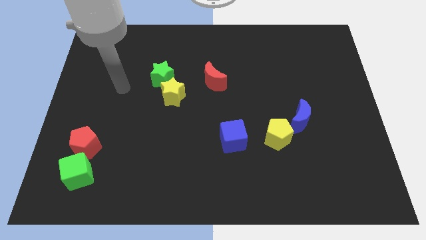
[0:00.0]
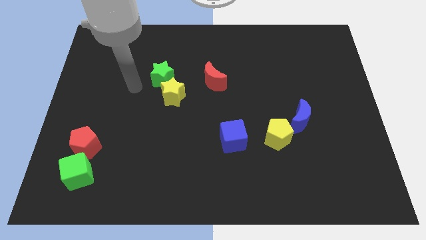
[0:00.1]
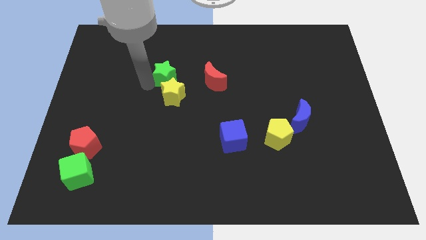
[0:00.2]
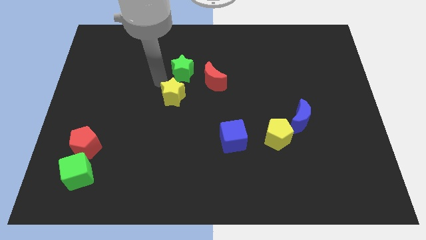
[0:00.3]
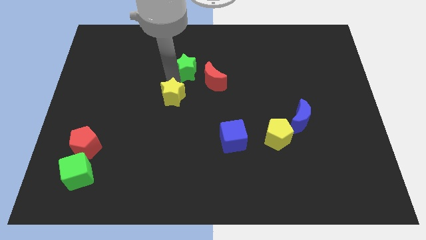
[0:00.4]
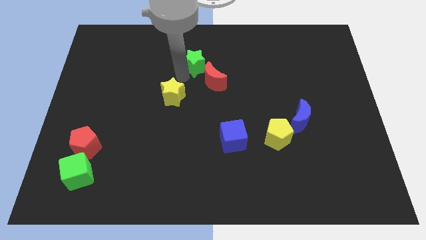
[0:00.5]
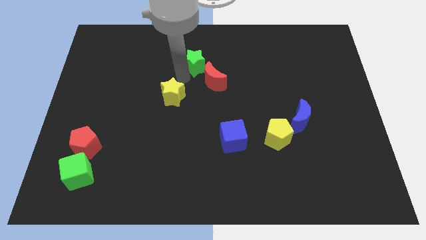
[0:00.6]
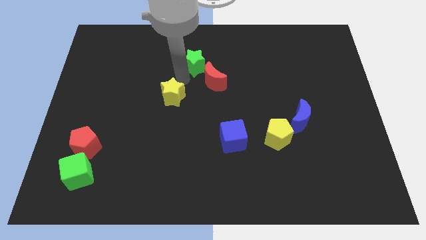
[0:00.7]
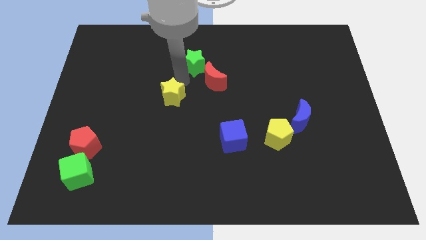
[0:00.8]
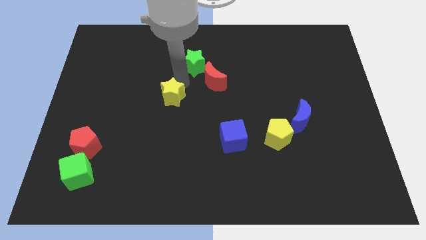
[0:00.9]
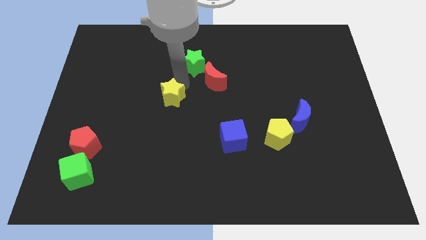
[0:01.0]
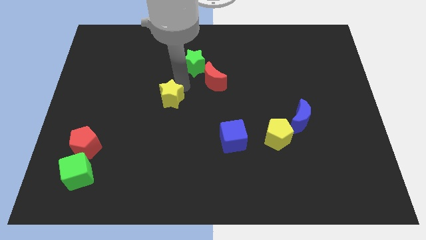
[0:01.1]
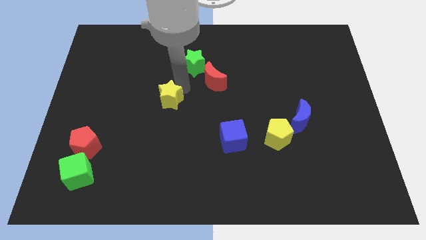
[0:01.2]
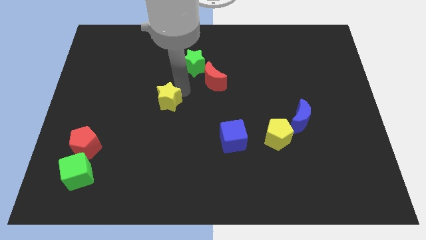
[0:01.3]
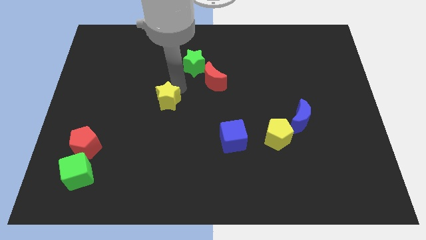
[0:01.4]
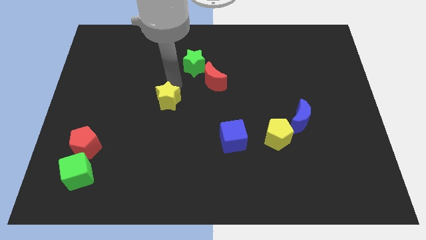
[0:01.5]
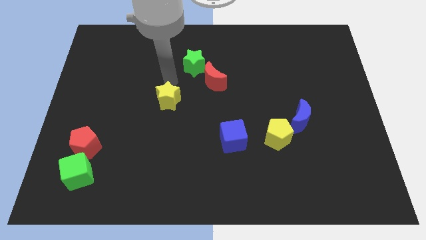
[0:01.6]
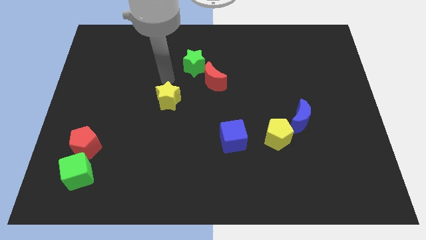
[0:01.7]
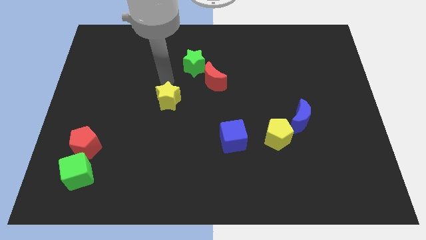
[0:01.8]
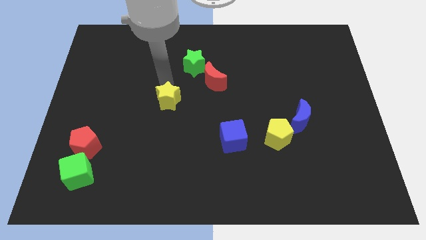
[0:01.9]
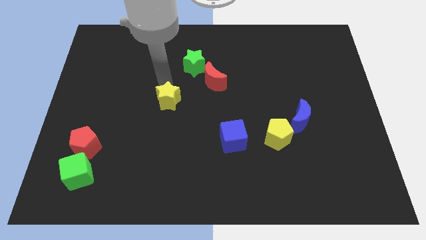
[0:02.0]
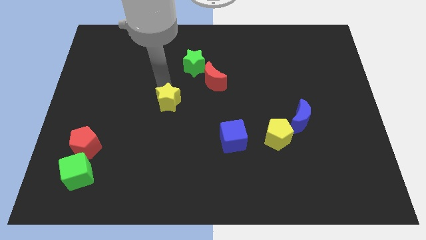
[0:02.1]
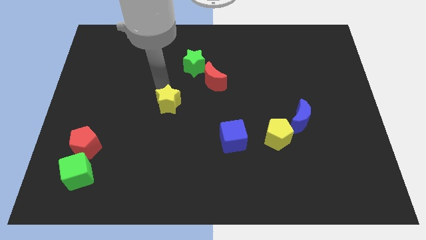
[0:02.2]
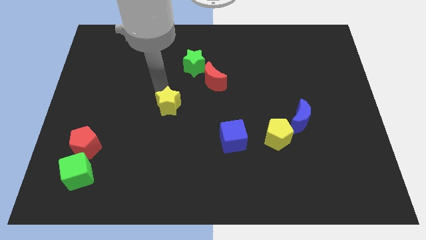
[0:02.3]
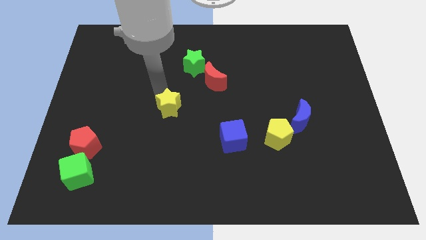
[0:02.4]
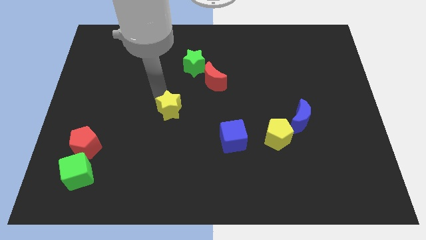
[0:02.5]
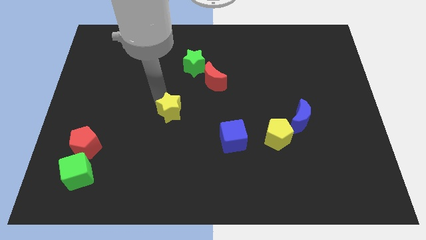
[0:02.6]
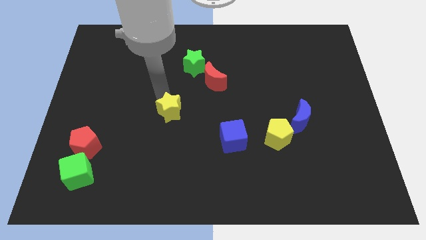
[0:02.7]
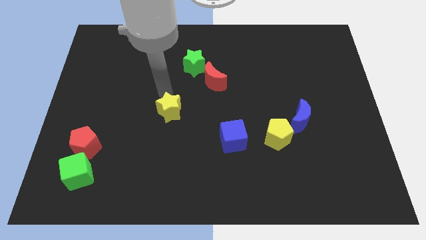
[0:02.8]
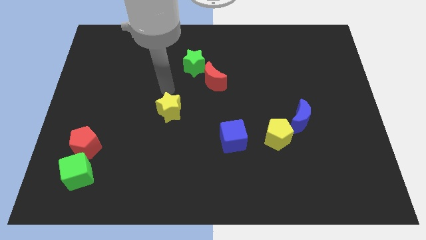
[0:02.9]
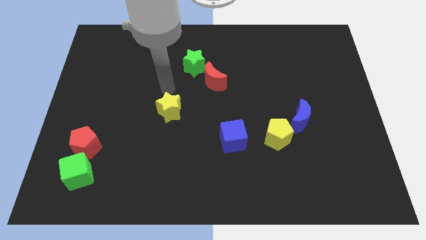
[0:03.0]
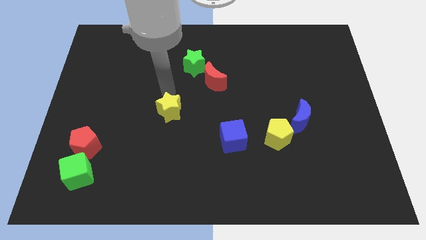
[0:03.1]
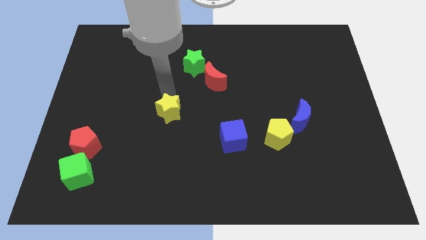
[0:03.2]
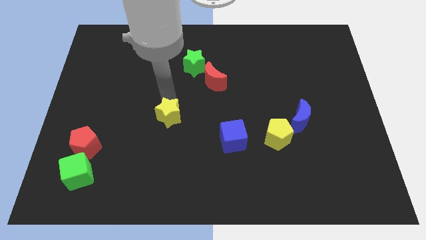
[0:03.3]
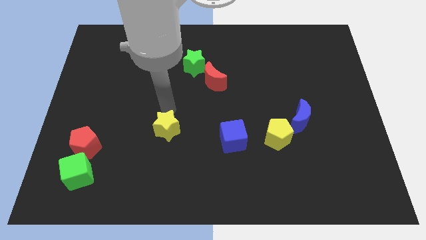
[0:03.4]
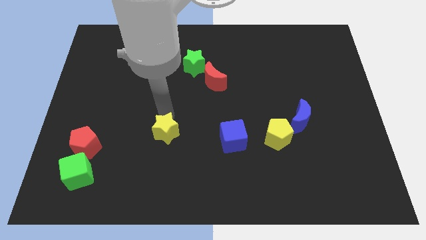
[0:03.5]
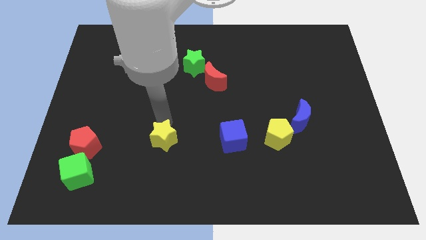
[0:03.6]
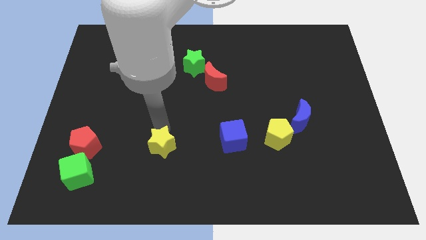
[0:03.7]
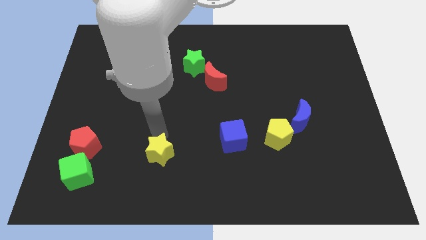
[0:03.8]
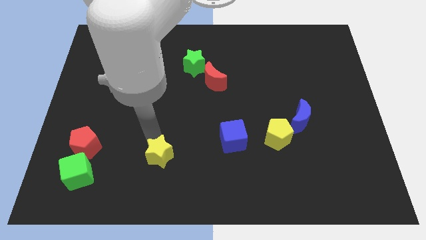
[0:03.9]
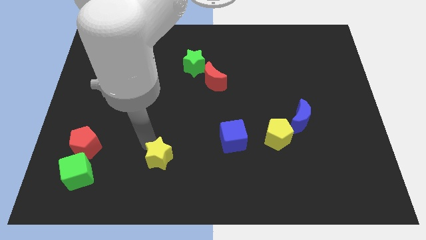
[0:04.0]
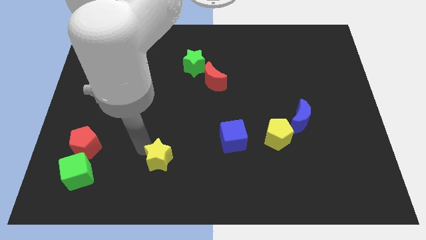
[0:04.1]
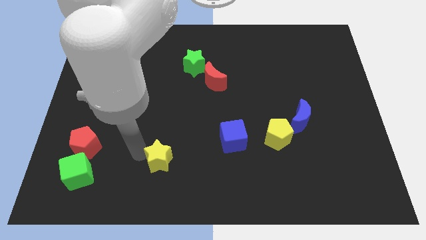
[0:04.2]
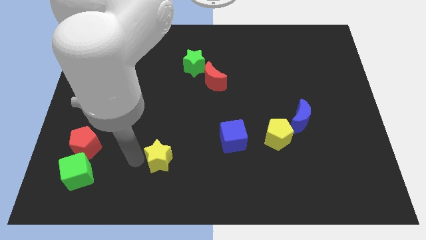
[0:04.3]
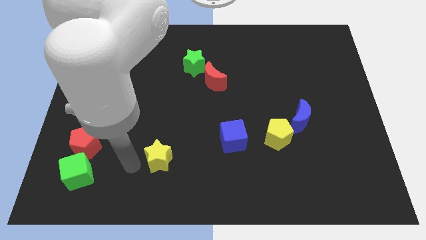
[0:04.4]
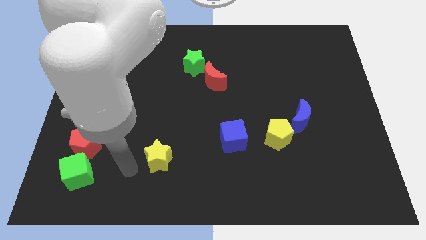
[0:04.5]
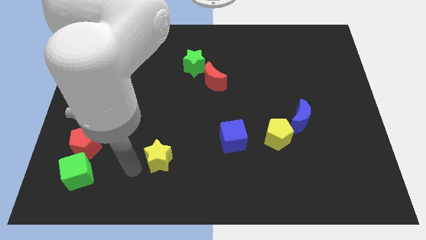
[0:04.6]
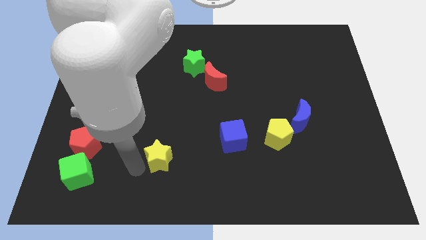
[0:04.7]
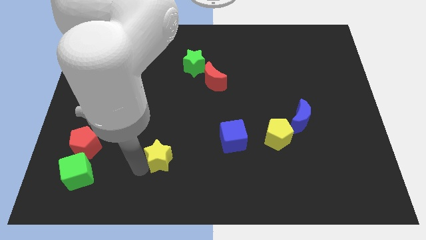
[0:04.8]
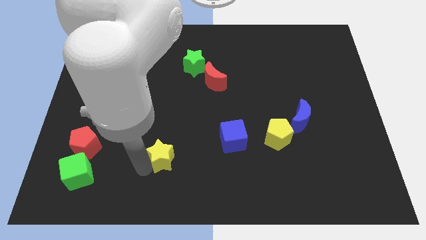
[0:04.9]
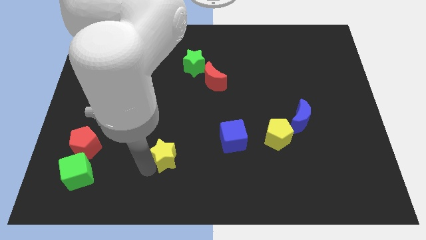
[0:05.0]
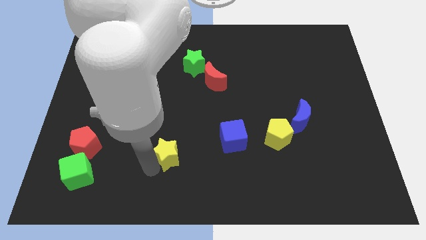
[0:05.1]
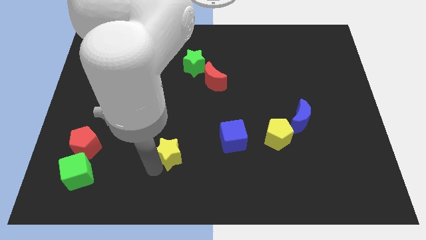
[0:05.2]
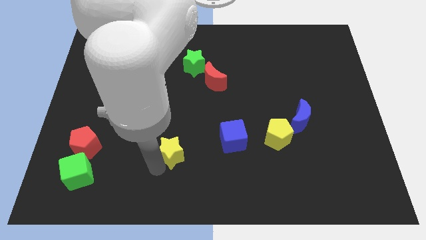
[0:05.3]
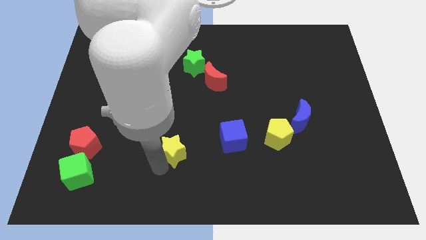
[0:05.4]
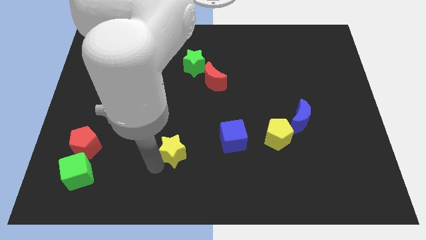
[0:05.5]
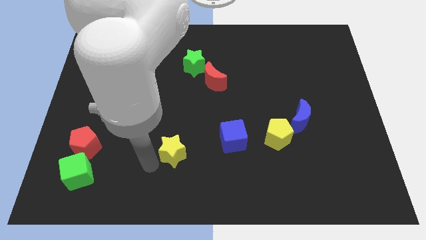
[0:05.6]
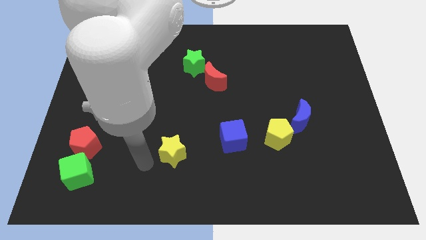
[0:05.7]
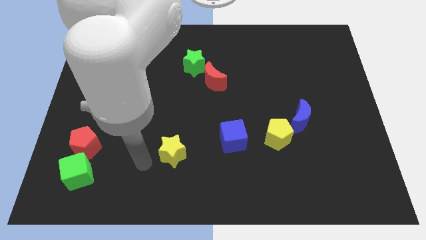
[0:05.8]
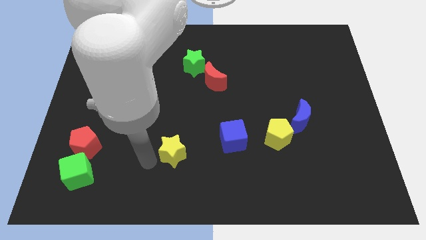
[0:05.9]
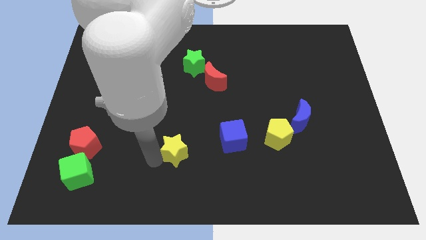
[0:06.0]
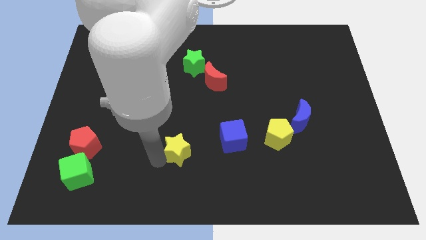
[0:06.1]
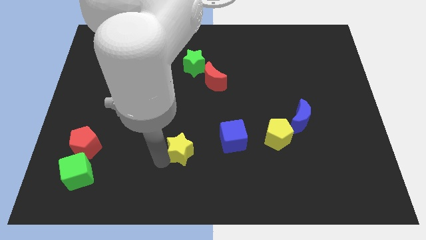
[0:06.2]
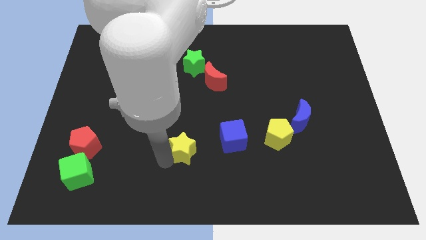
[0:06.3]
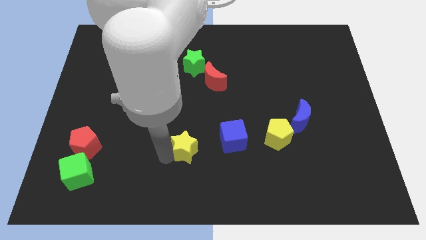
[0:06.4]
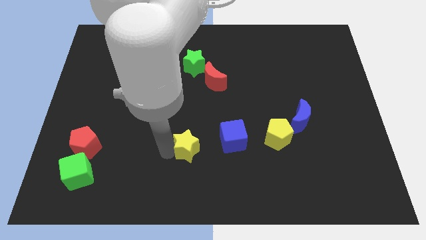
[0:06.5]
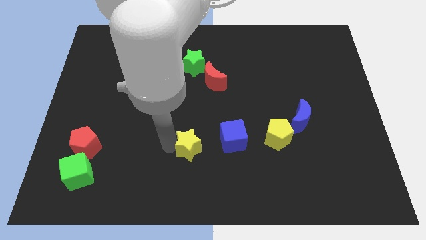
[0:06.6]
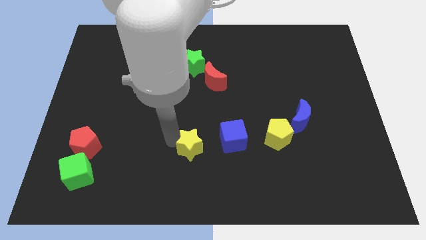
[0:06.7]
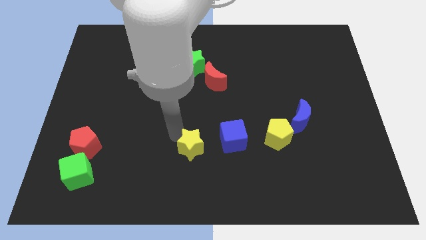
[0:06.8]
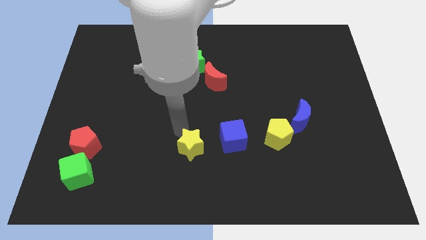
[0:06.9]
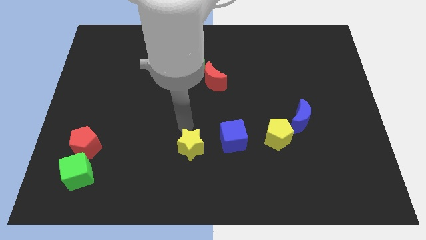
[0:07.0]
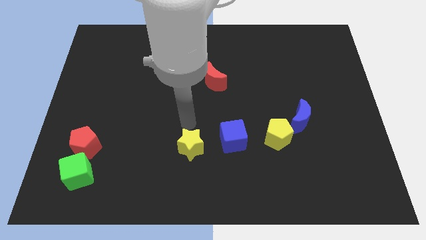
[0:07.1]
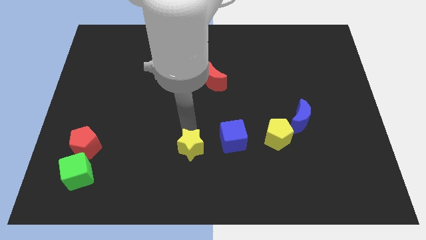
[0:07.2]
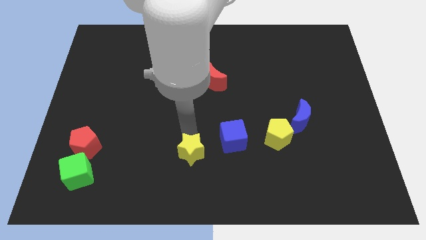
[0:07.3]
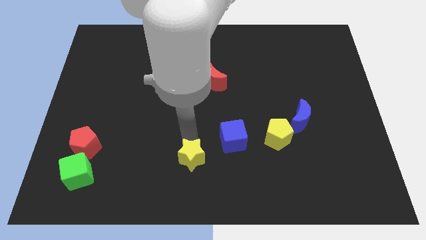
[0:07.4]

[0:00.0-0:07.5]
move the yellow star to the bottom
